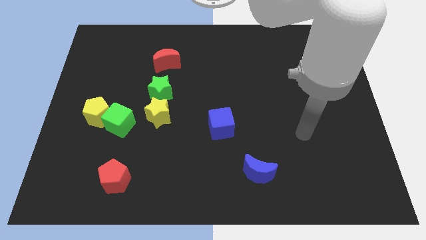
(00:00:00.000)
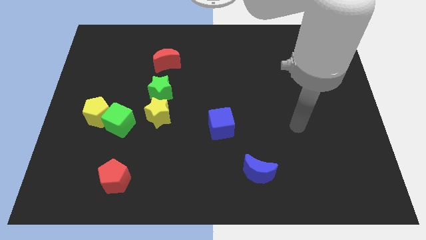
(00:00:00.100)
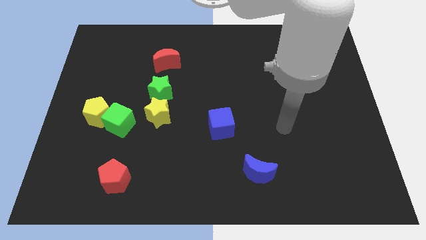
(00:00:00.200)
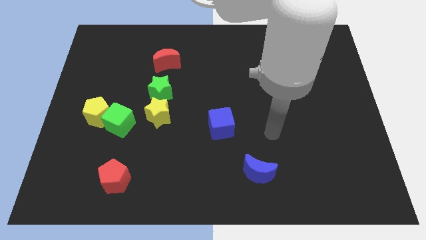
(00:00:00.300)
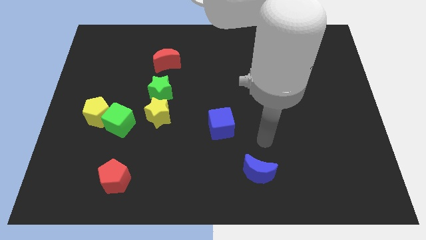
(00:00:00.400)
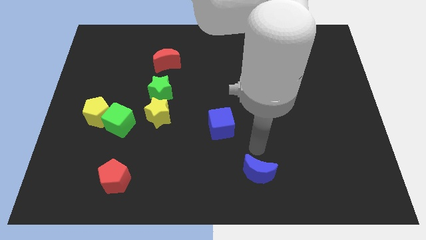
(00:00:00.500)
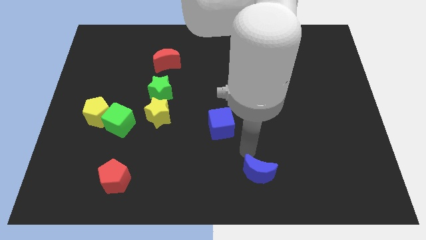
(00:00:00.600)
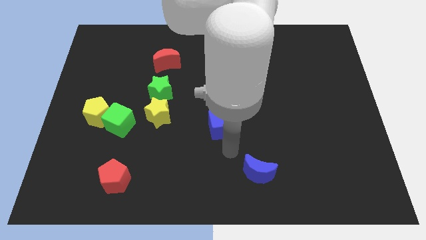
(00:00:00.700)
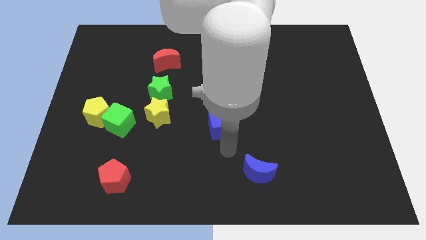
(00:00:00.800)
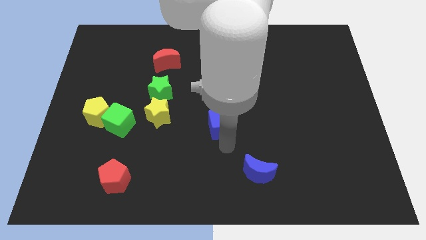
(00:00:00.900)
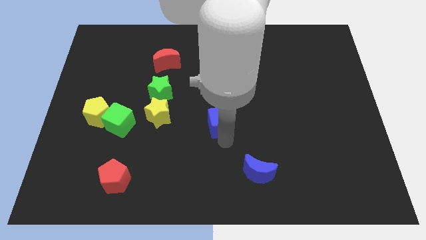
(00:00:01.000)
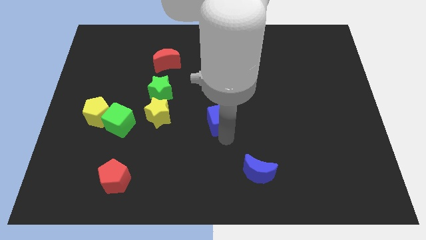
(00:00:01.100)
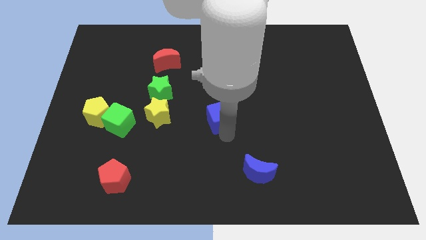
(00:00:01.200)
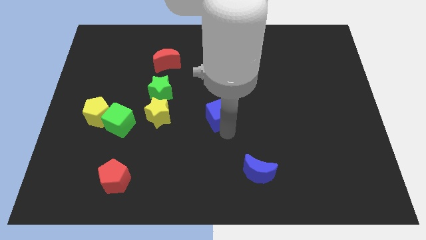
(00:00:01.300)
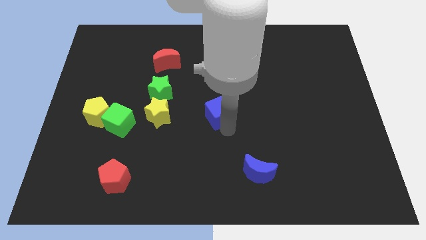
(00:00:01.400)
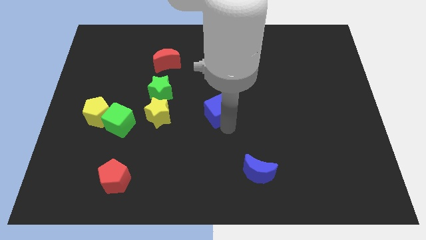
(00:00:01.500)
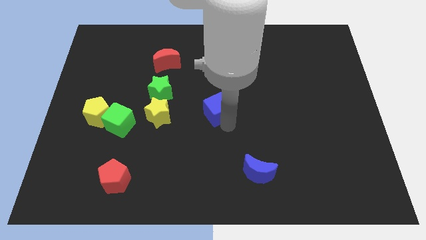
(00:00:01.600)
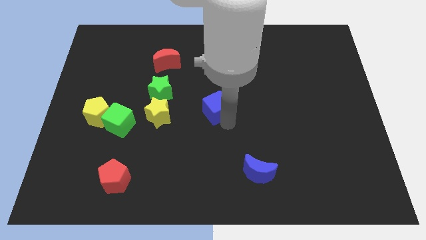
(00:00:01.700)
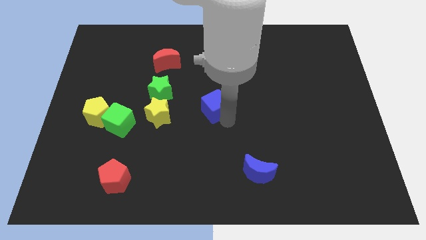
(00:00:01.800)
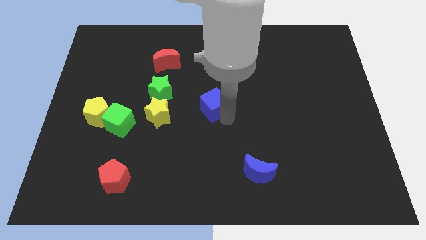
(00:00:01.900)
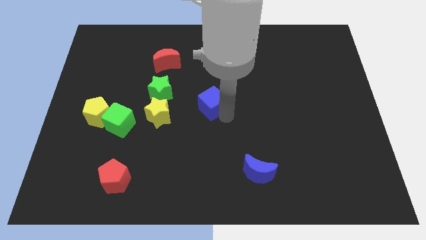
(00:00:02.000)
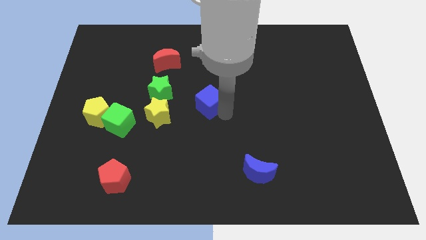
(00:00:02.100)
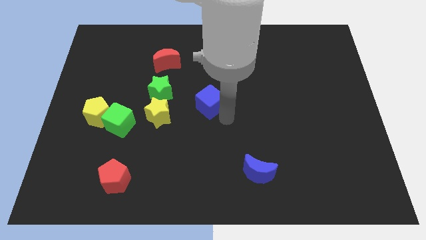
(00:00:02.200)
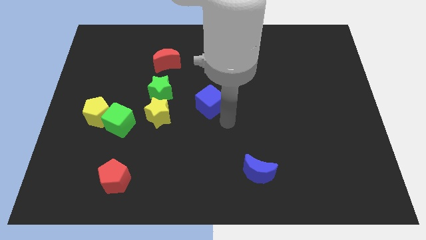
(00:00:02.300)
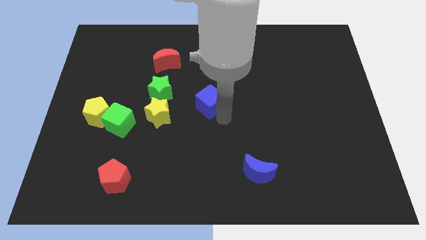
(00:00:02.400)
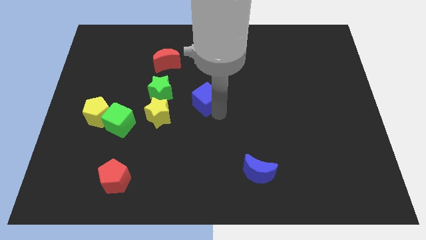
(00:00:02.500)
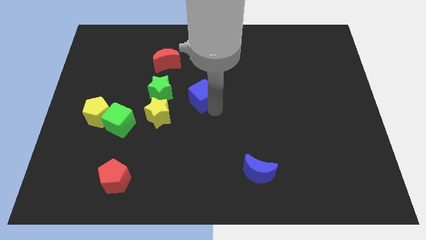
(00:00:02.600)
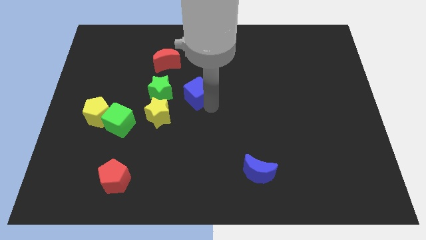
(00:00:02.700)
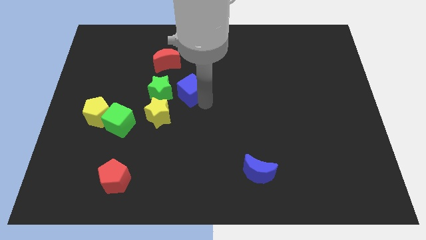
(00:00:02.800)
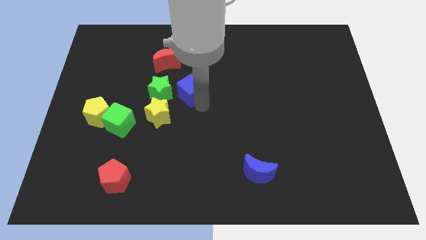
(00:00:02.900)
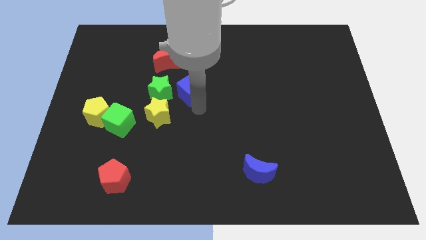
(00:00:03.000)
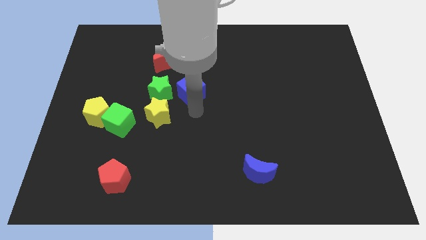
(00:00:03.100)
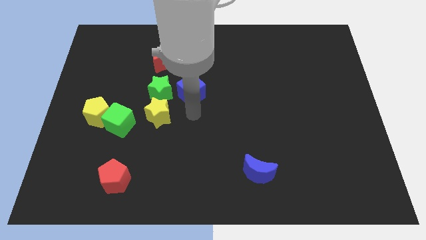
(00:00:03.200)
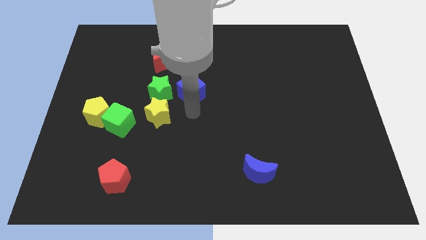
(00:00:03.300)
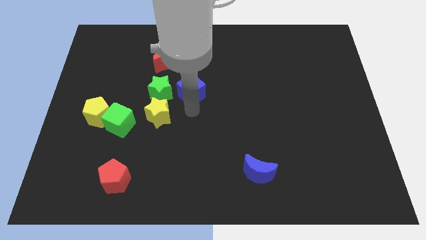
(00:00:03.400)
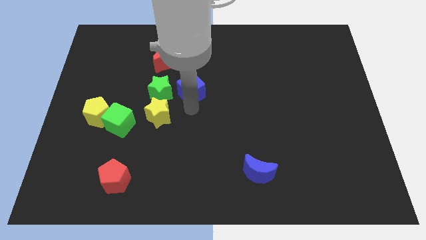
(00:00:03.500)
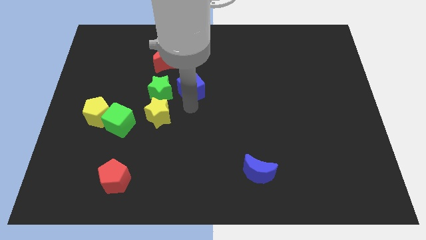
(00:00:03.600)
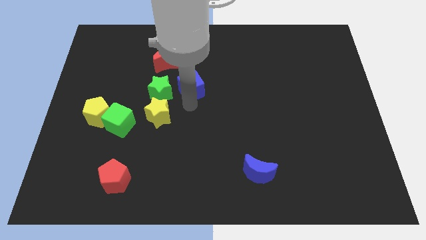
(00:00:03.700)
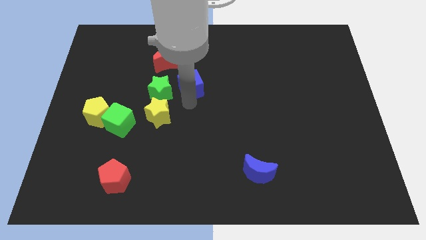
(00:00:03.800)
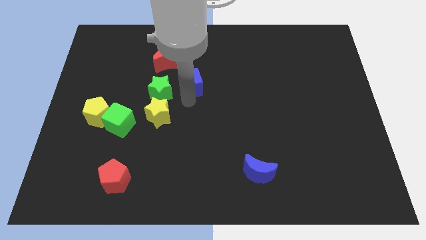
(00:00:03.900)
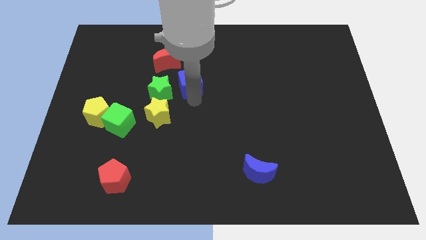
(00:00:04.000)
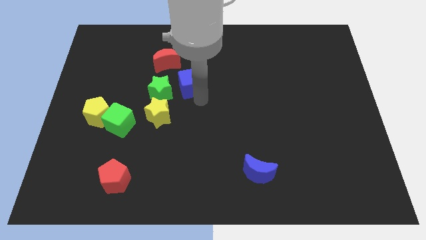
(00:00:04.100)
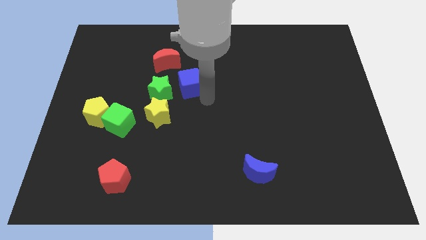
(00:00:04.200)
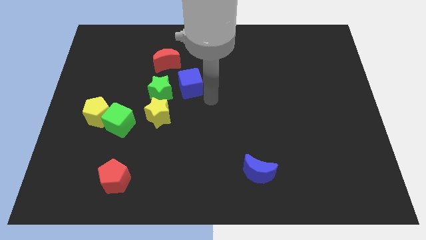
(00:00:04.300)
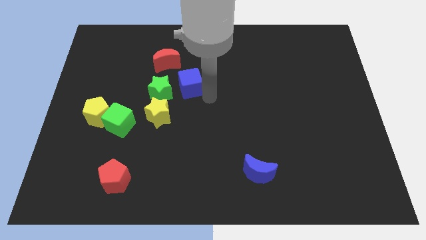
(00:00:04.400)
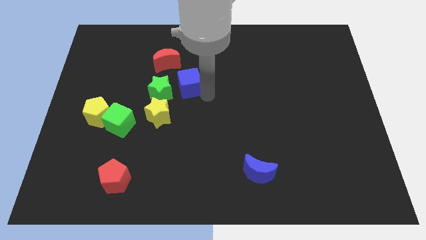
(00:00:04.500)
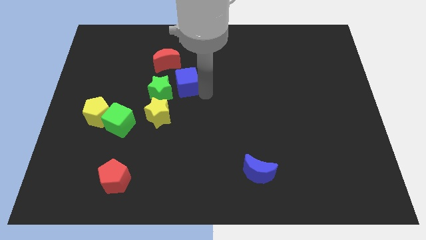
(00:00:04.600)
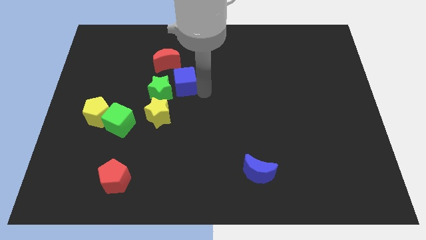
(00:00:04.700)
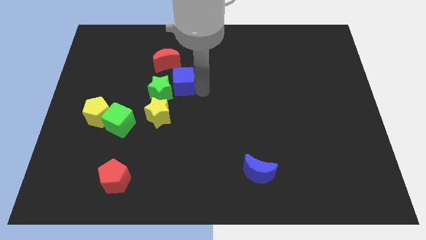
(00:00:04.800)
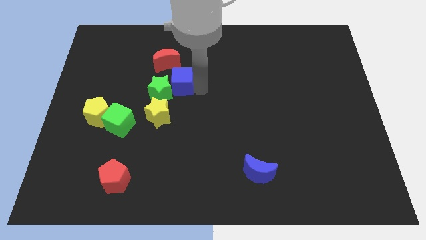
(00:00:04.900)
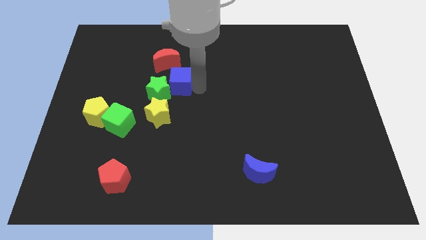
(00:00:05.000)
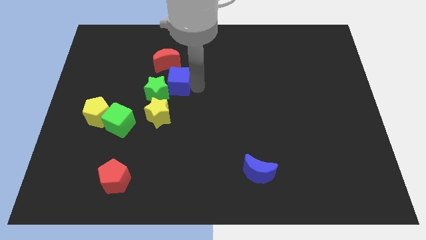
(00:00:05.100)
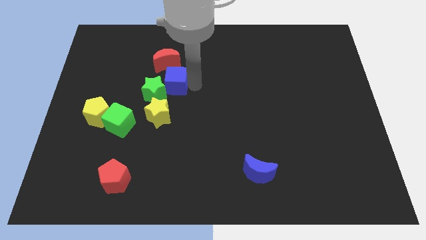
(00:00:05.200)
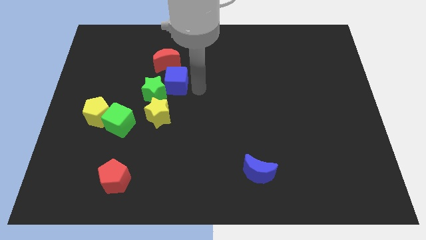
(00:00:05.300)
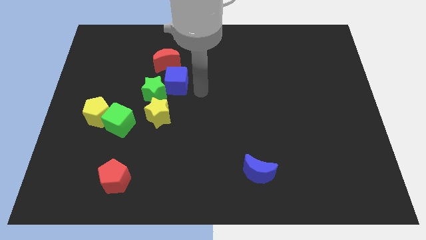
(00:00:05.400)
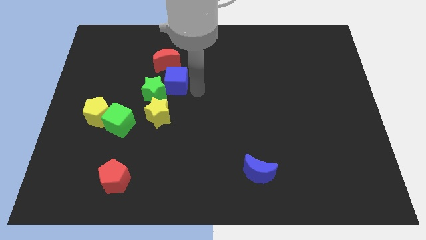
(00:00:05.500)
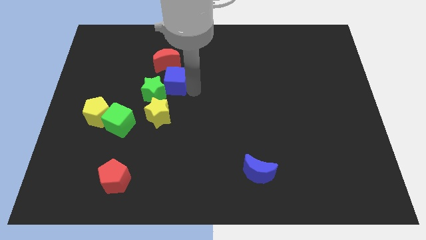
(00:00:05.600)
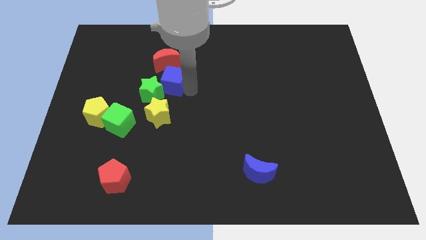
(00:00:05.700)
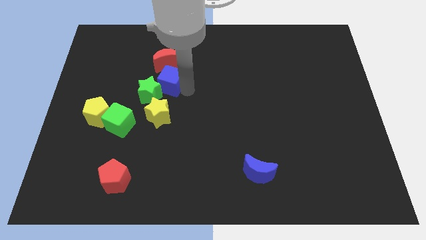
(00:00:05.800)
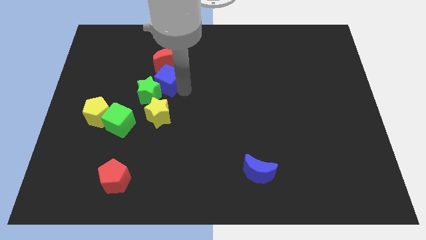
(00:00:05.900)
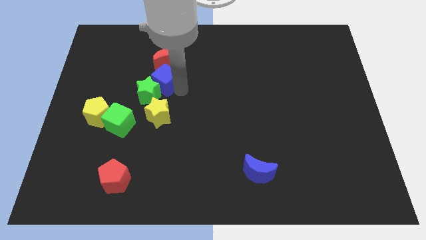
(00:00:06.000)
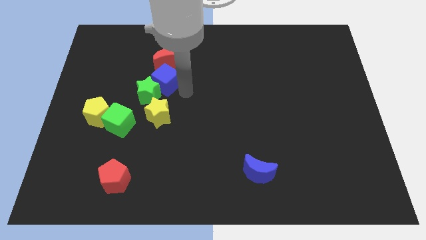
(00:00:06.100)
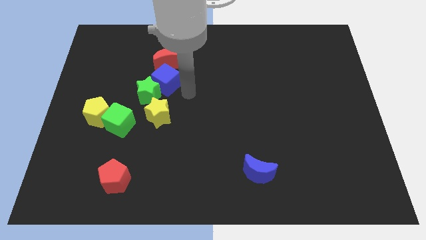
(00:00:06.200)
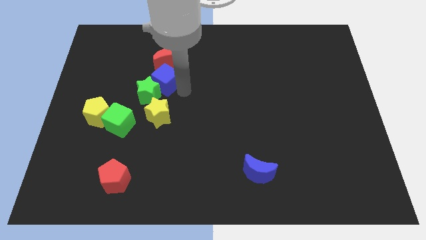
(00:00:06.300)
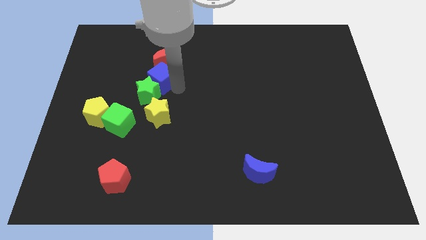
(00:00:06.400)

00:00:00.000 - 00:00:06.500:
move the blue cube upwards and then to the left

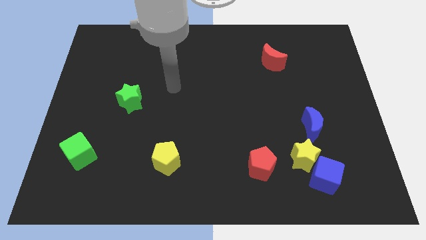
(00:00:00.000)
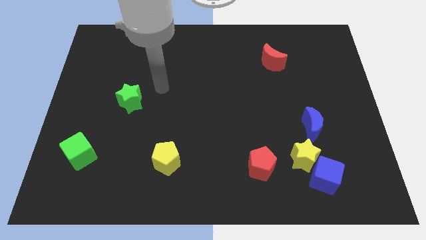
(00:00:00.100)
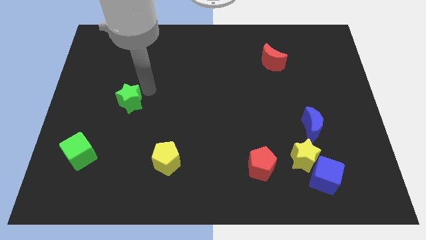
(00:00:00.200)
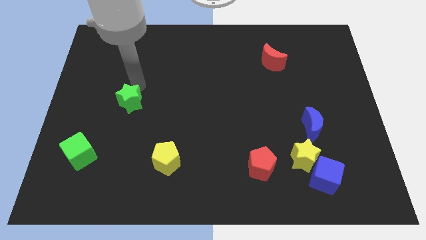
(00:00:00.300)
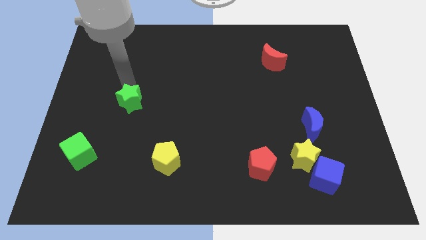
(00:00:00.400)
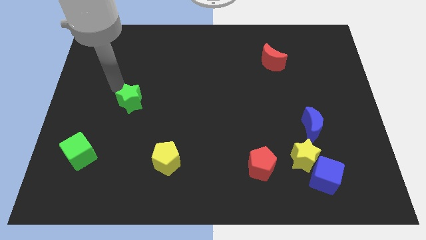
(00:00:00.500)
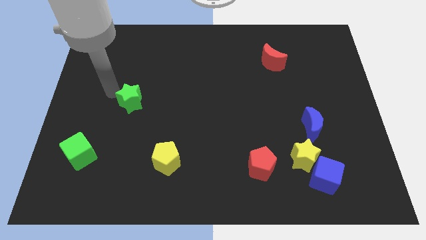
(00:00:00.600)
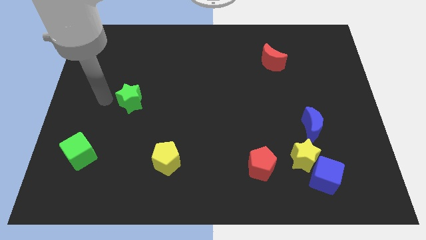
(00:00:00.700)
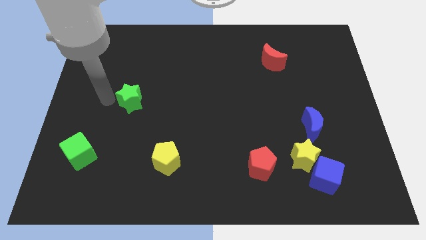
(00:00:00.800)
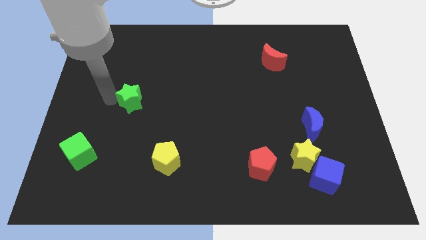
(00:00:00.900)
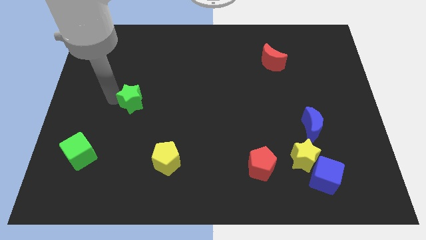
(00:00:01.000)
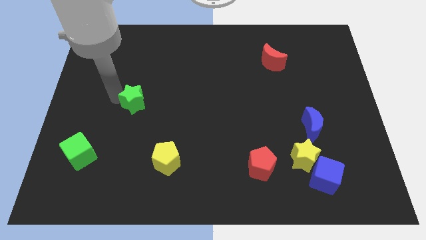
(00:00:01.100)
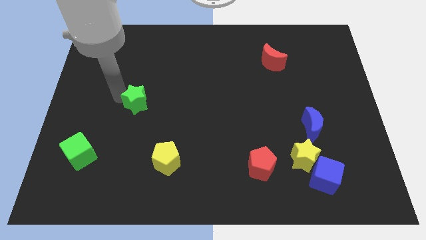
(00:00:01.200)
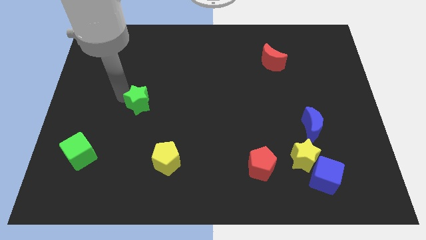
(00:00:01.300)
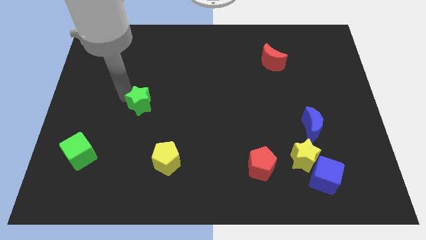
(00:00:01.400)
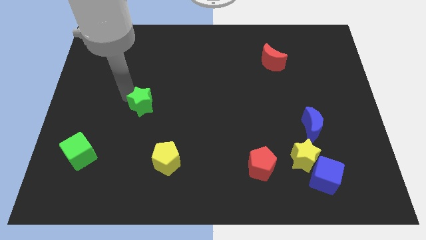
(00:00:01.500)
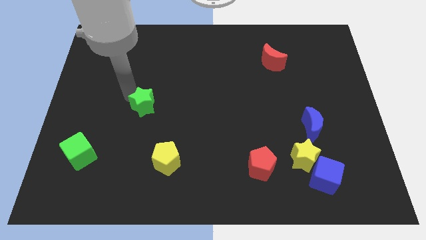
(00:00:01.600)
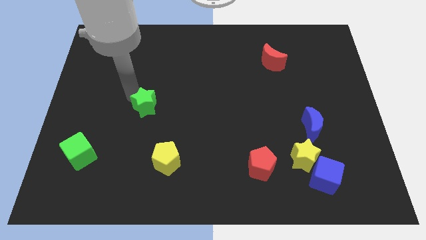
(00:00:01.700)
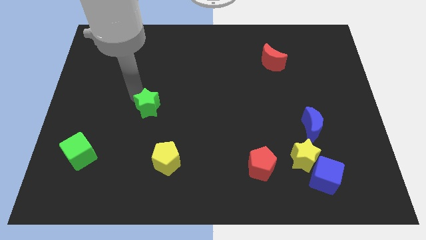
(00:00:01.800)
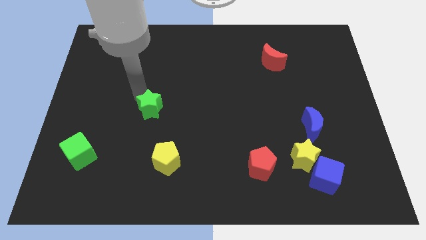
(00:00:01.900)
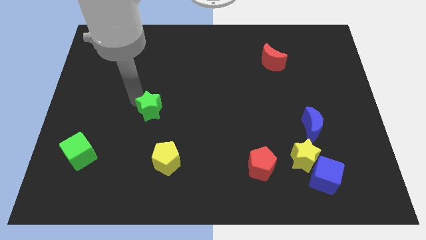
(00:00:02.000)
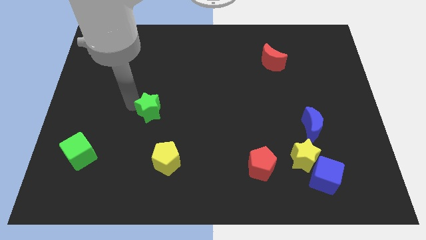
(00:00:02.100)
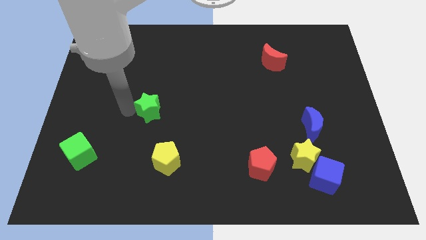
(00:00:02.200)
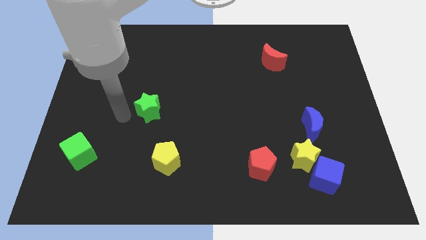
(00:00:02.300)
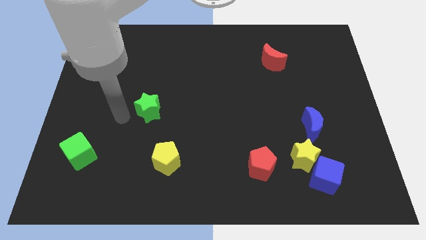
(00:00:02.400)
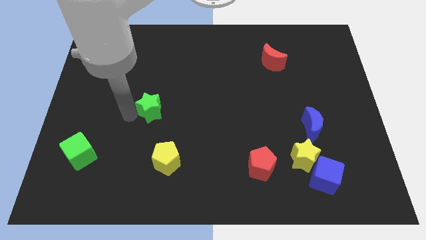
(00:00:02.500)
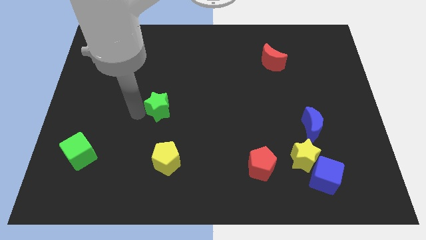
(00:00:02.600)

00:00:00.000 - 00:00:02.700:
slightly push the green star right
